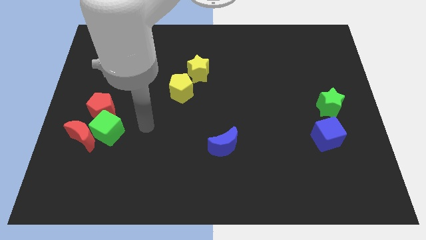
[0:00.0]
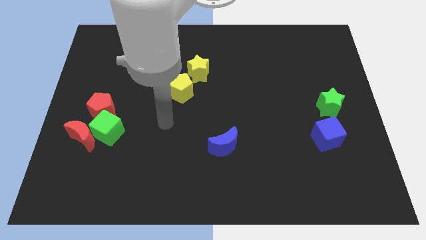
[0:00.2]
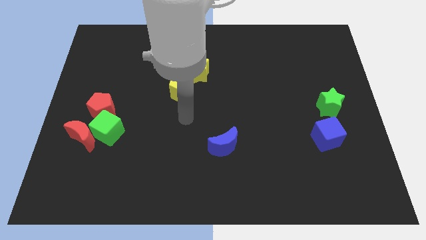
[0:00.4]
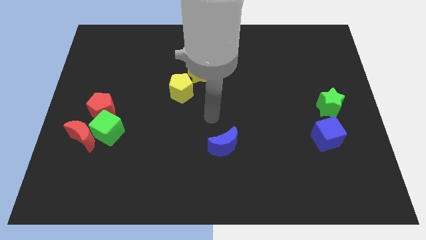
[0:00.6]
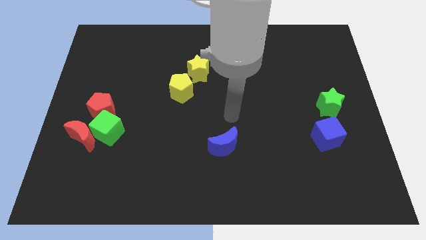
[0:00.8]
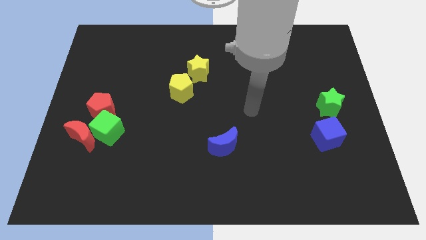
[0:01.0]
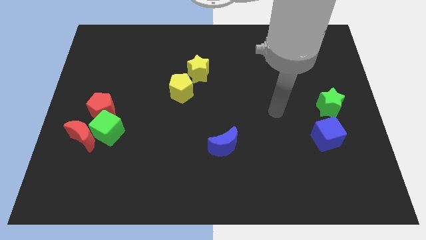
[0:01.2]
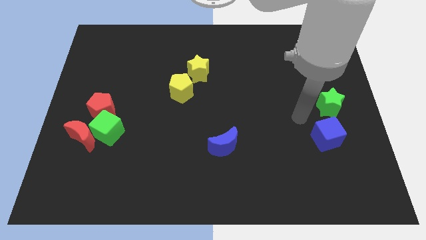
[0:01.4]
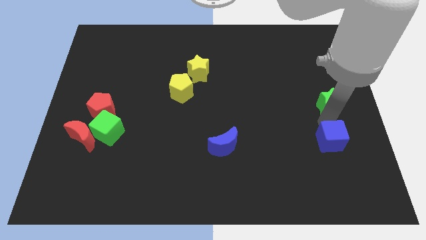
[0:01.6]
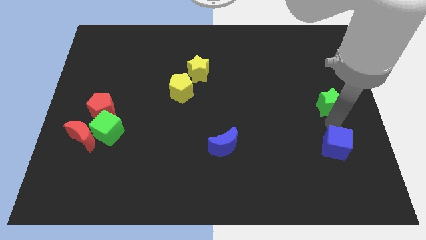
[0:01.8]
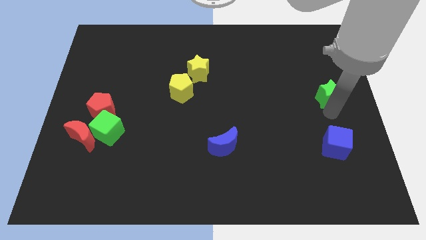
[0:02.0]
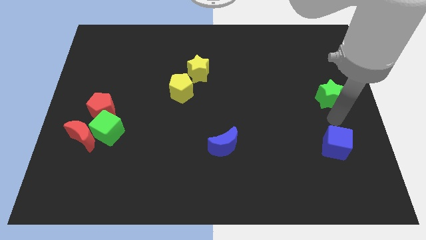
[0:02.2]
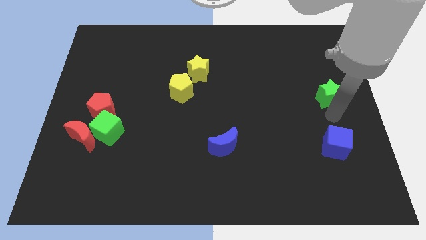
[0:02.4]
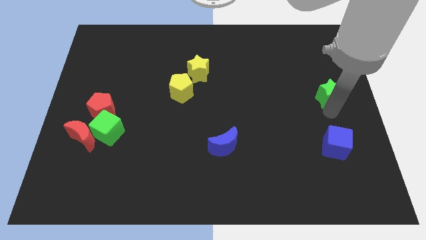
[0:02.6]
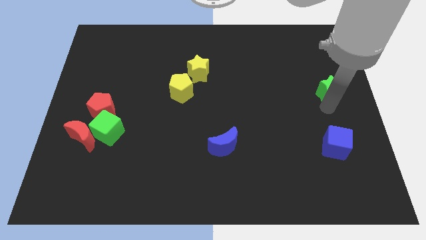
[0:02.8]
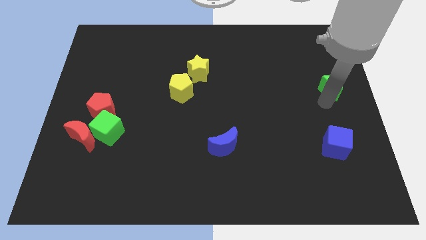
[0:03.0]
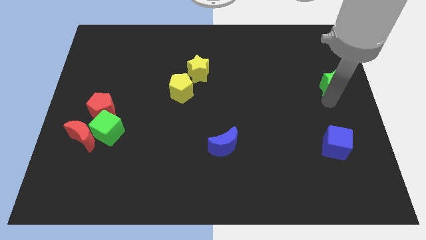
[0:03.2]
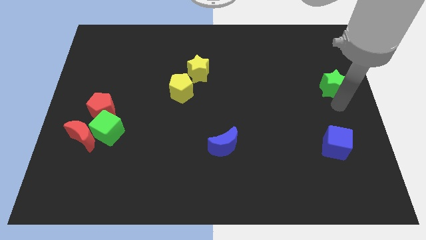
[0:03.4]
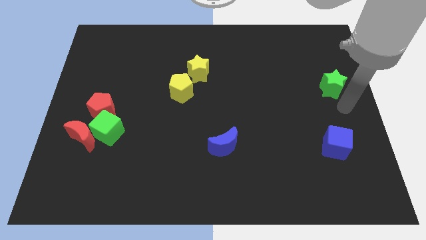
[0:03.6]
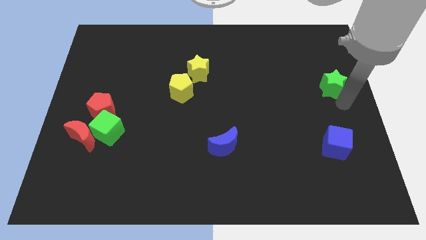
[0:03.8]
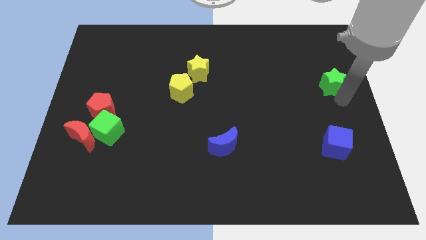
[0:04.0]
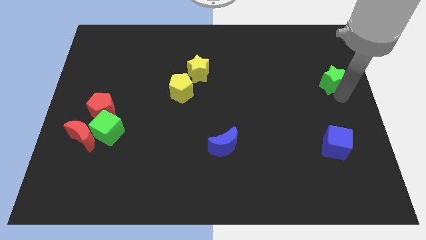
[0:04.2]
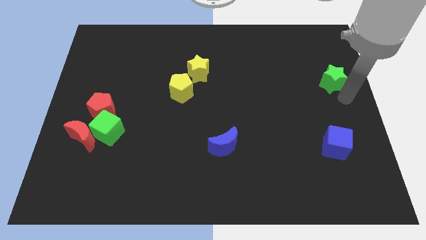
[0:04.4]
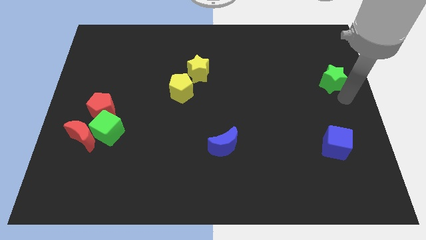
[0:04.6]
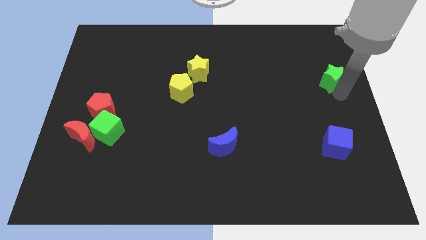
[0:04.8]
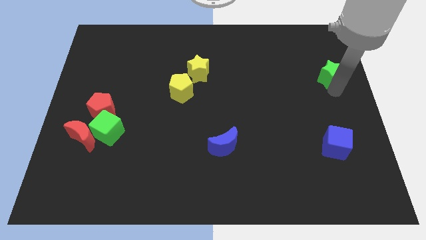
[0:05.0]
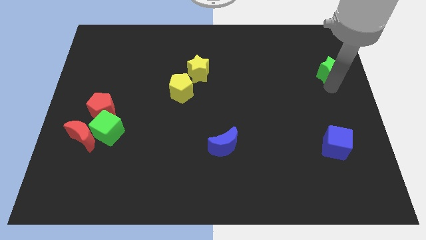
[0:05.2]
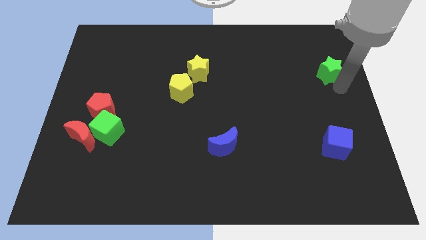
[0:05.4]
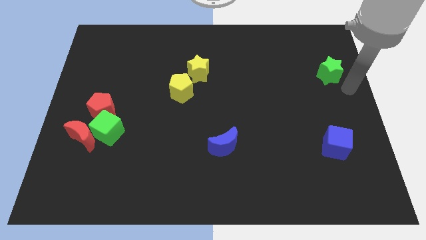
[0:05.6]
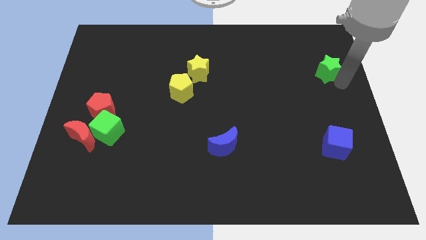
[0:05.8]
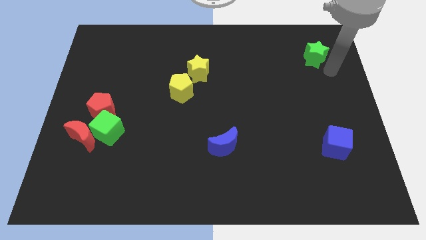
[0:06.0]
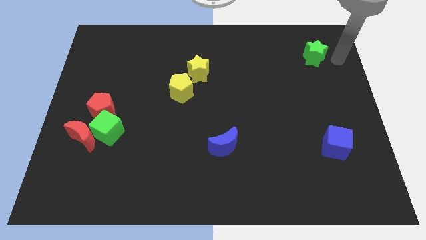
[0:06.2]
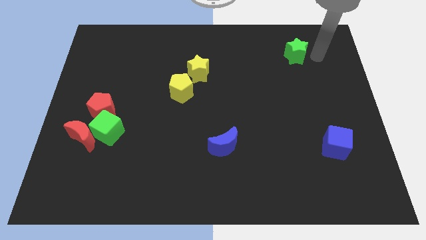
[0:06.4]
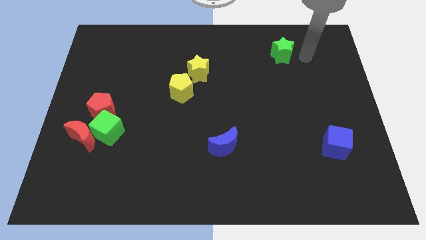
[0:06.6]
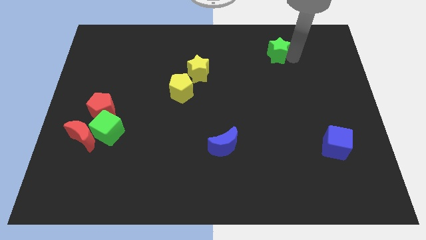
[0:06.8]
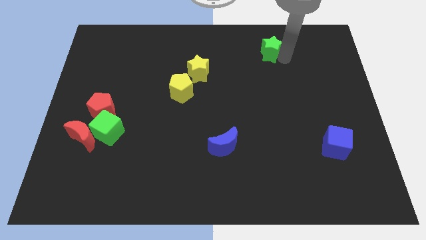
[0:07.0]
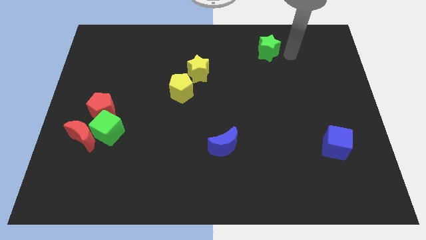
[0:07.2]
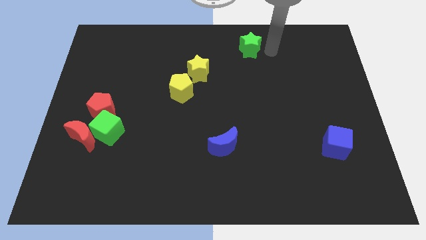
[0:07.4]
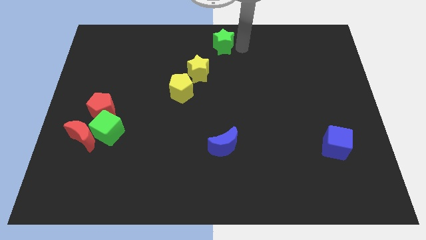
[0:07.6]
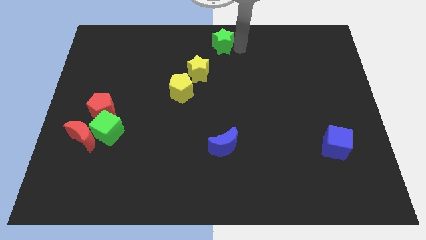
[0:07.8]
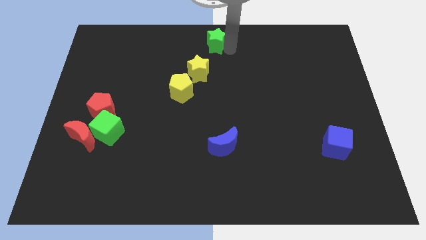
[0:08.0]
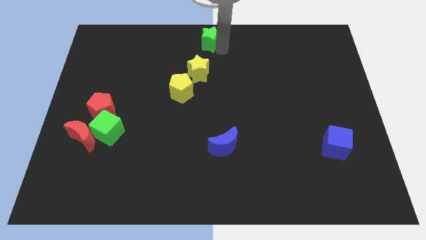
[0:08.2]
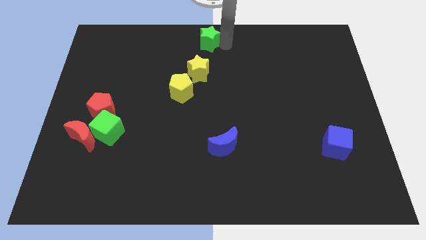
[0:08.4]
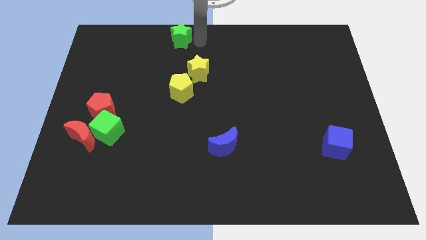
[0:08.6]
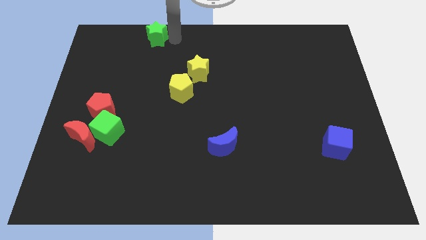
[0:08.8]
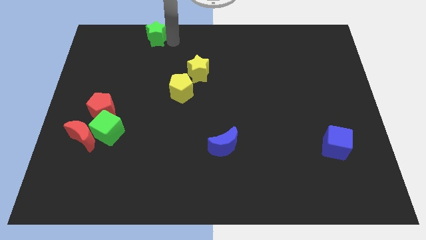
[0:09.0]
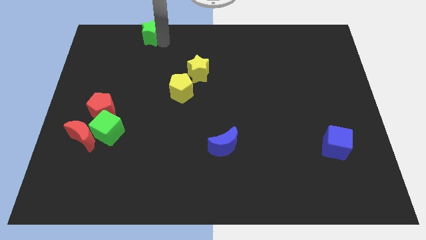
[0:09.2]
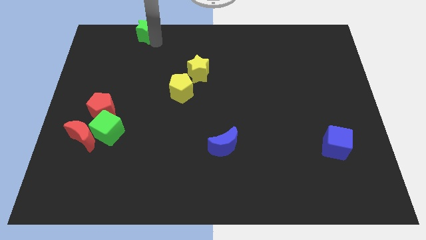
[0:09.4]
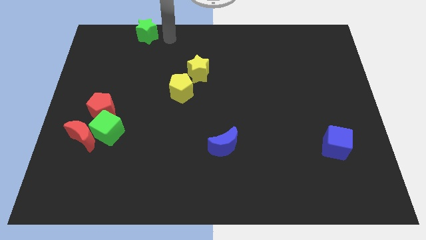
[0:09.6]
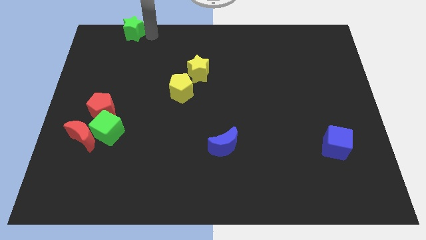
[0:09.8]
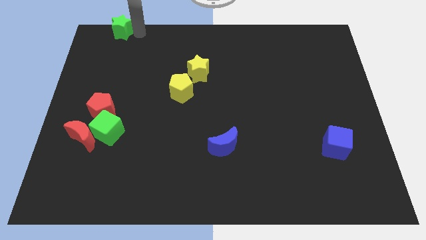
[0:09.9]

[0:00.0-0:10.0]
push the green star to the top left
